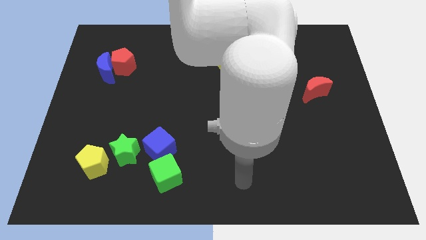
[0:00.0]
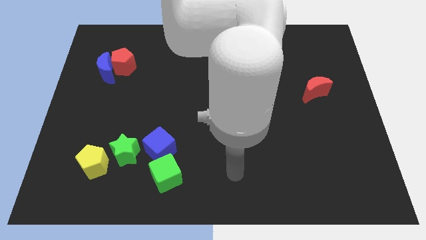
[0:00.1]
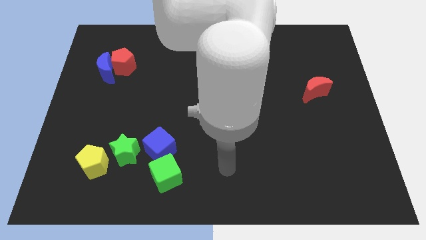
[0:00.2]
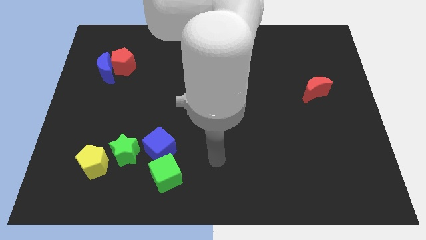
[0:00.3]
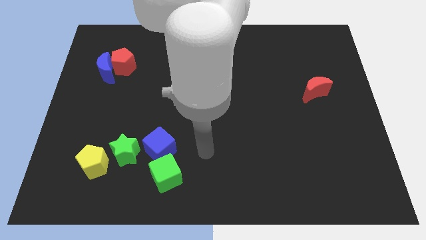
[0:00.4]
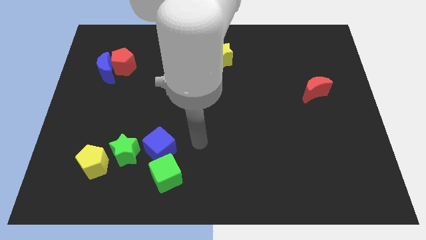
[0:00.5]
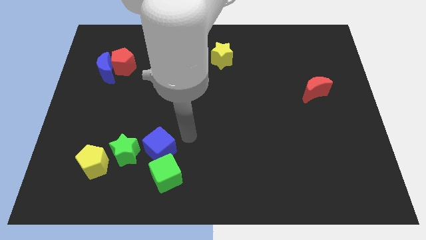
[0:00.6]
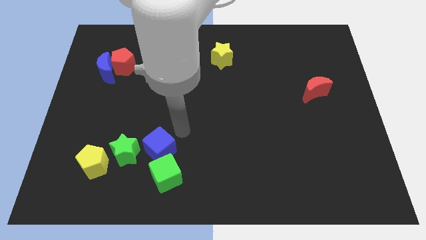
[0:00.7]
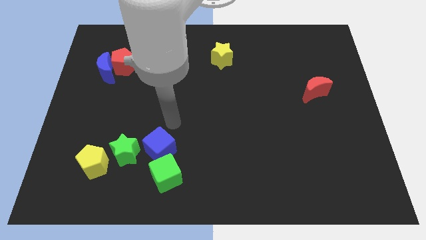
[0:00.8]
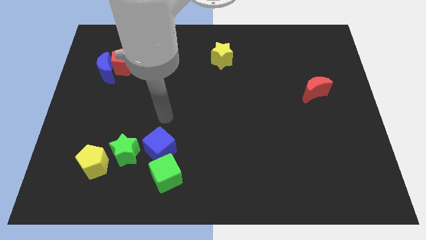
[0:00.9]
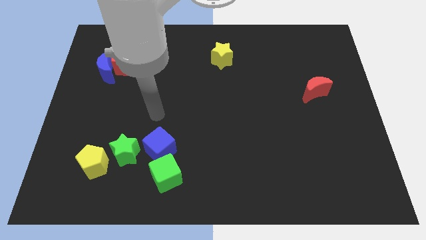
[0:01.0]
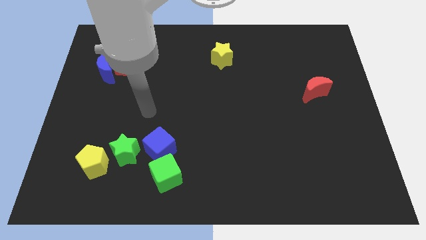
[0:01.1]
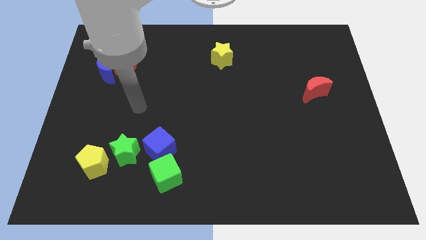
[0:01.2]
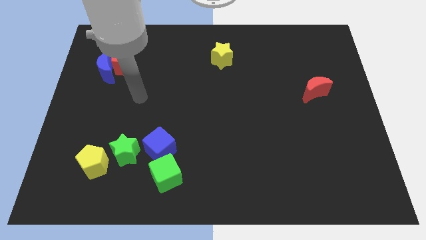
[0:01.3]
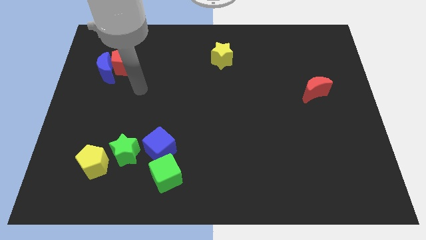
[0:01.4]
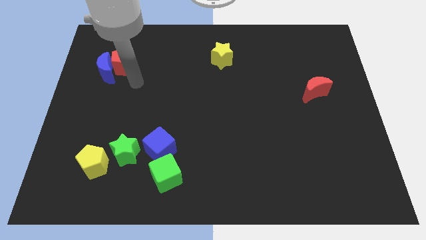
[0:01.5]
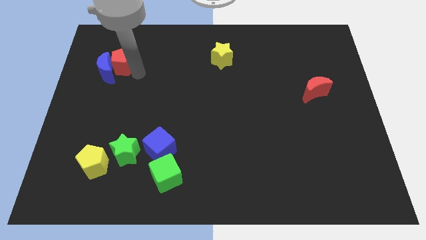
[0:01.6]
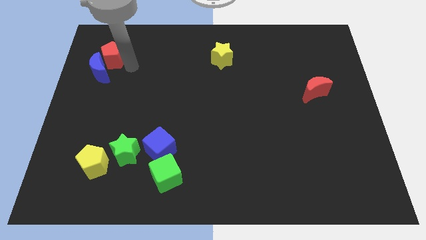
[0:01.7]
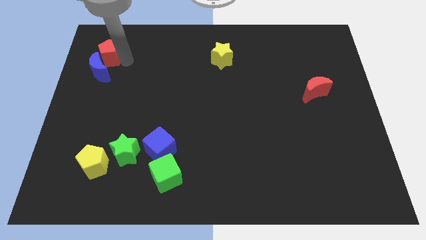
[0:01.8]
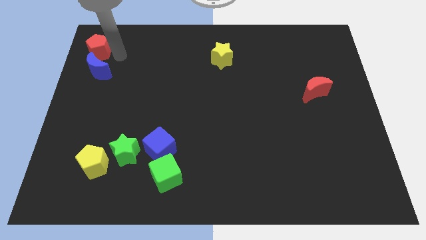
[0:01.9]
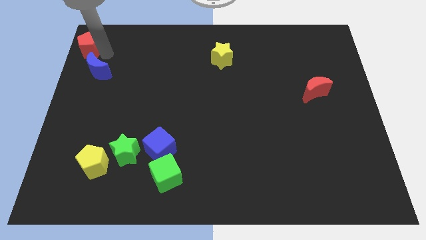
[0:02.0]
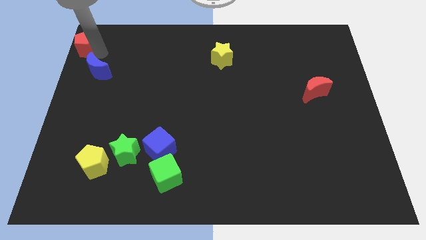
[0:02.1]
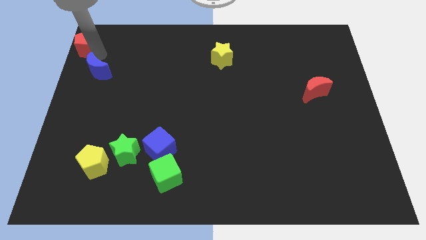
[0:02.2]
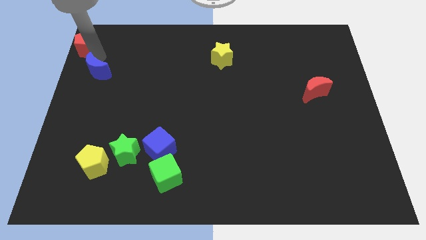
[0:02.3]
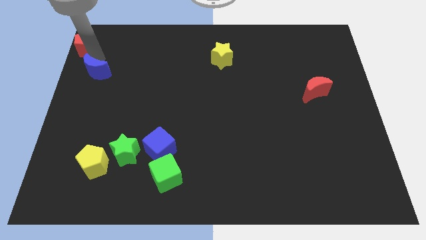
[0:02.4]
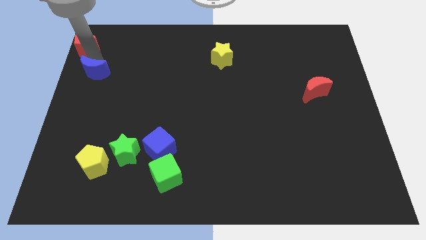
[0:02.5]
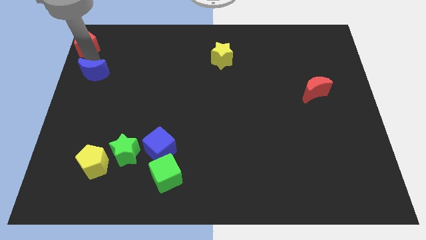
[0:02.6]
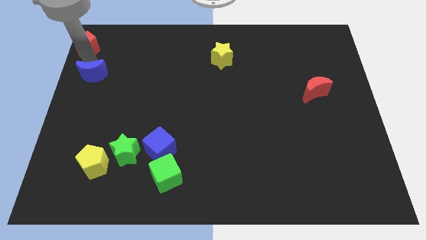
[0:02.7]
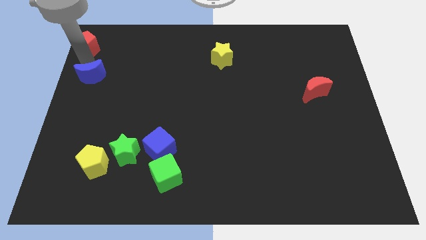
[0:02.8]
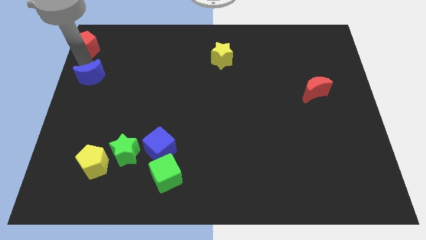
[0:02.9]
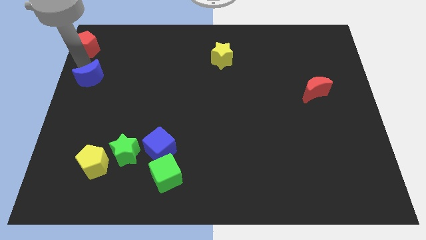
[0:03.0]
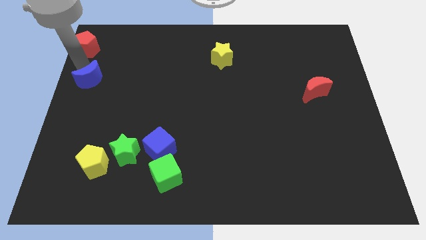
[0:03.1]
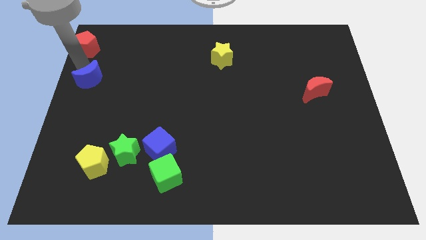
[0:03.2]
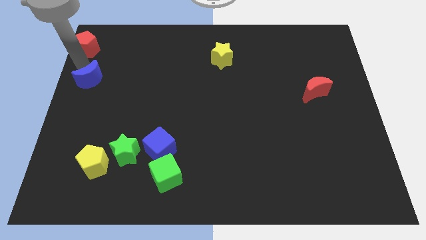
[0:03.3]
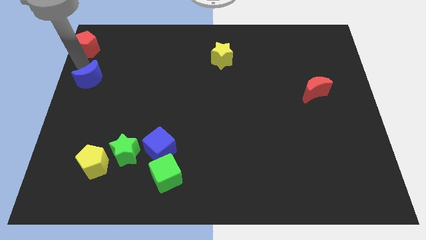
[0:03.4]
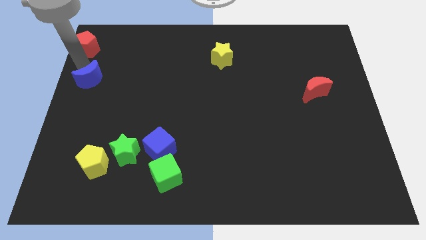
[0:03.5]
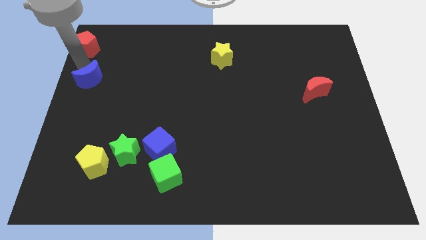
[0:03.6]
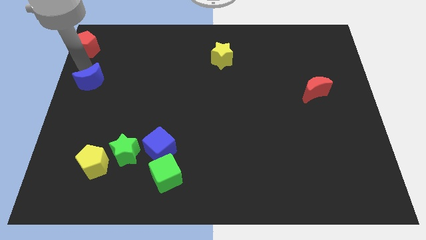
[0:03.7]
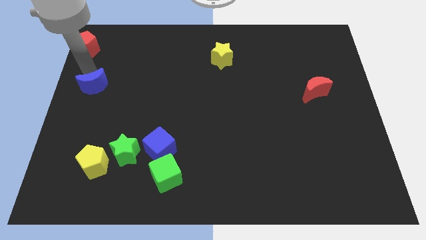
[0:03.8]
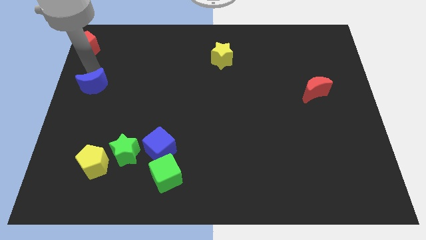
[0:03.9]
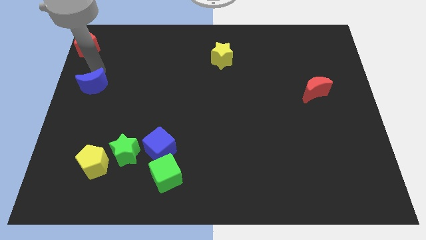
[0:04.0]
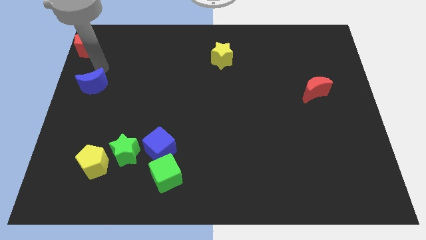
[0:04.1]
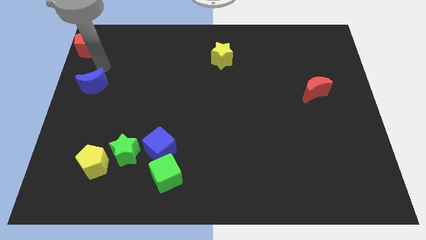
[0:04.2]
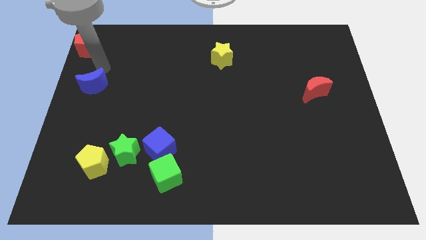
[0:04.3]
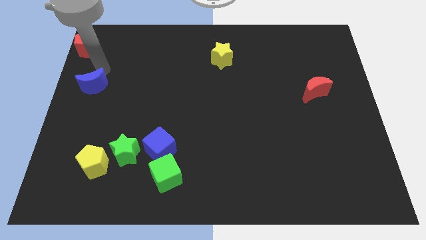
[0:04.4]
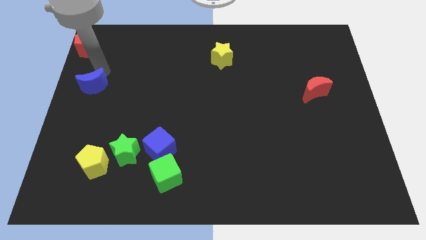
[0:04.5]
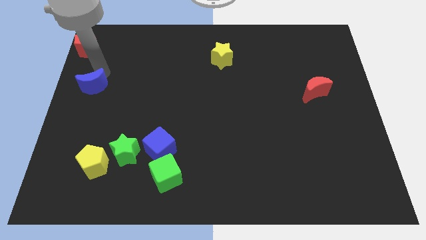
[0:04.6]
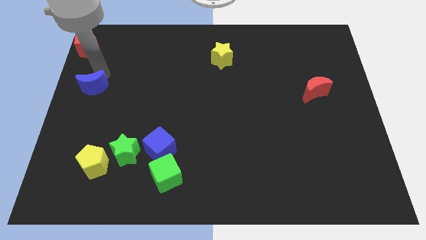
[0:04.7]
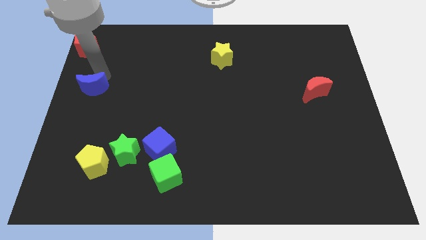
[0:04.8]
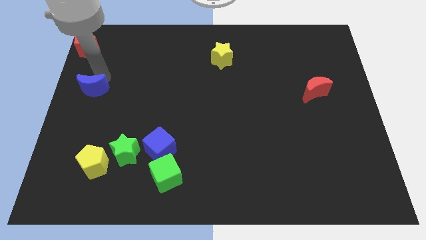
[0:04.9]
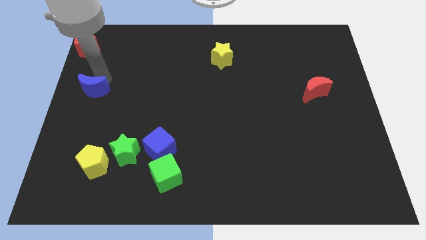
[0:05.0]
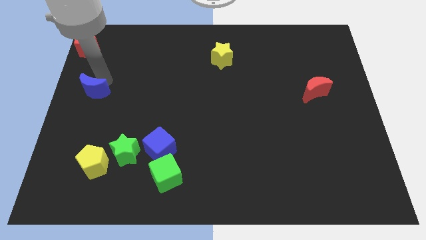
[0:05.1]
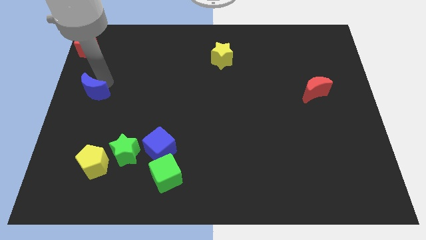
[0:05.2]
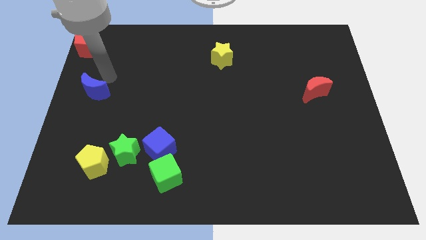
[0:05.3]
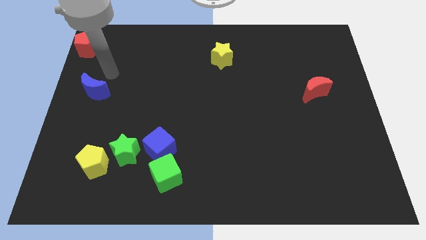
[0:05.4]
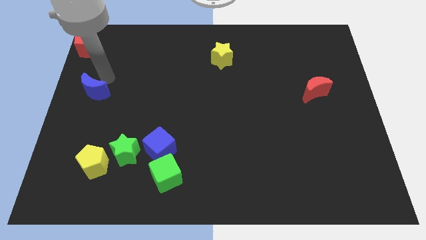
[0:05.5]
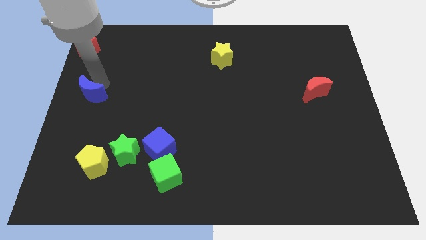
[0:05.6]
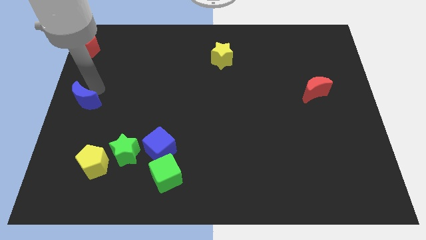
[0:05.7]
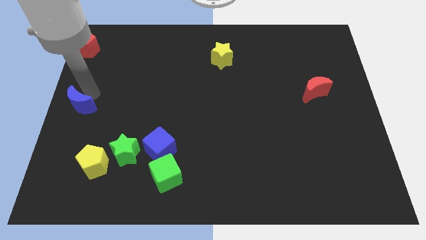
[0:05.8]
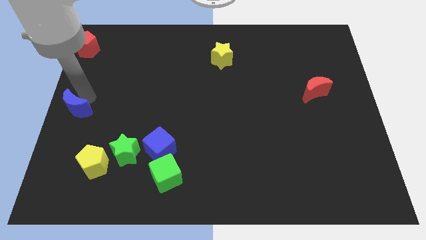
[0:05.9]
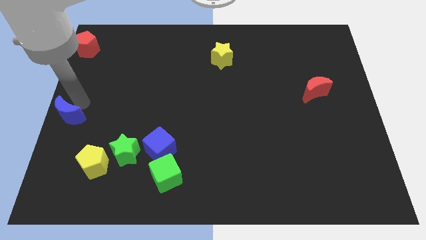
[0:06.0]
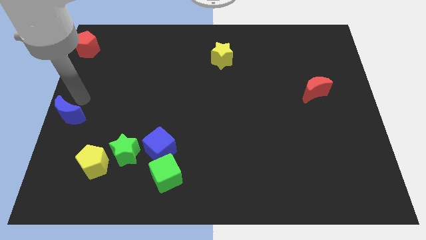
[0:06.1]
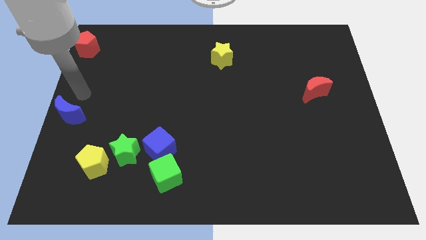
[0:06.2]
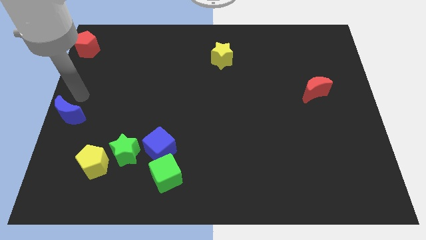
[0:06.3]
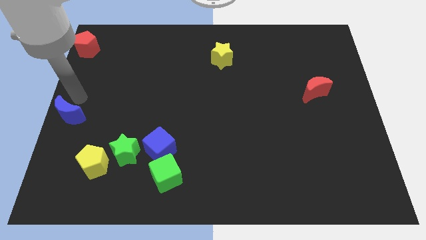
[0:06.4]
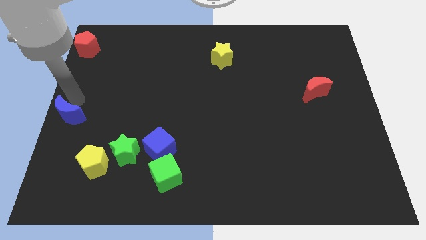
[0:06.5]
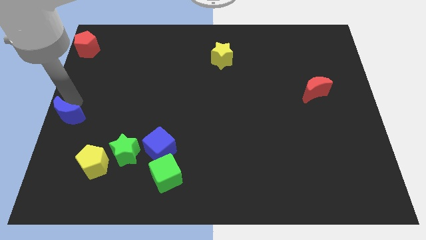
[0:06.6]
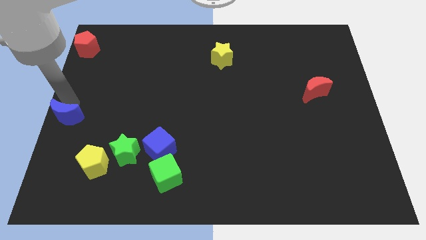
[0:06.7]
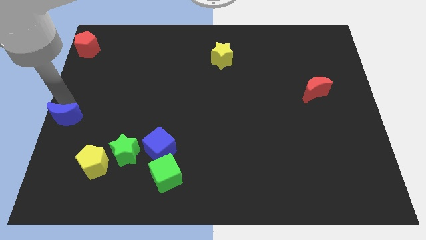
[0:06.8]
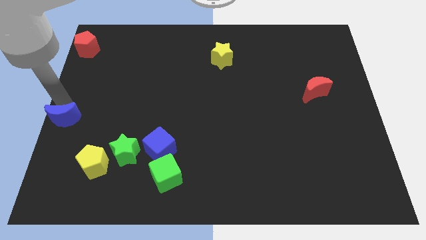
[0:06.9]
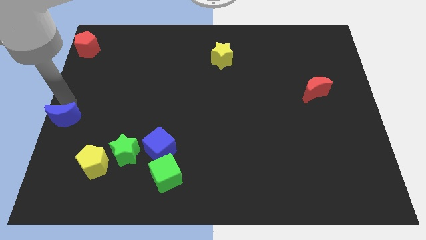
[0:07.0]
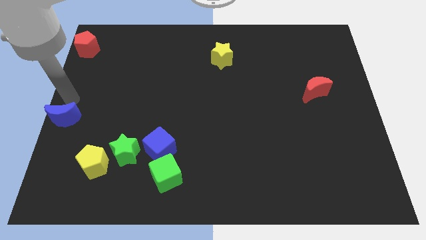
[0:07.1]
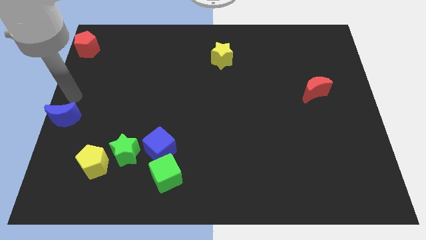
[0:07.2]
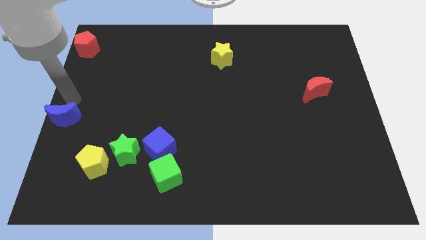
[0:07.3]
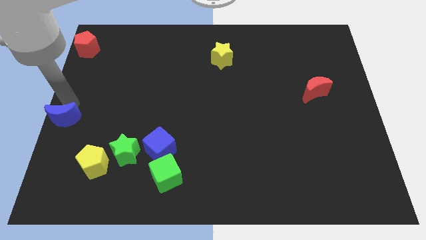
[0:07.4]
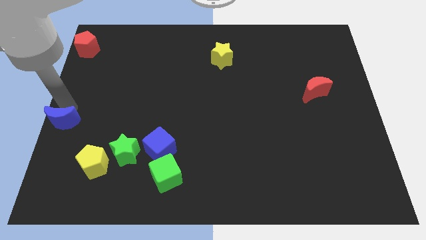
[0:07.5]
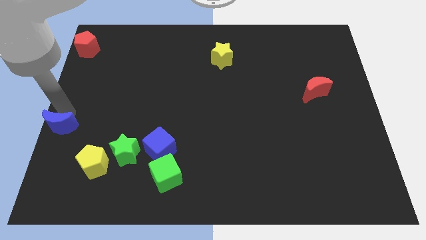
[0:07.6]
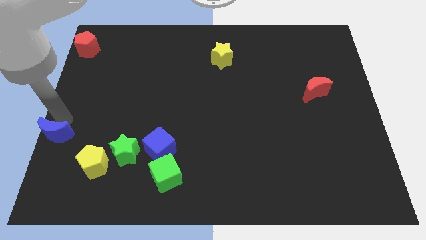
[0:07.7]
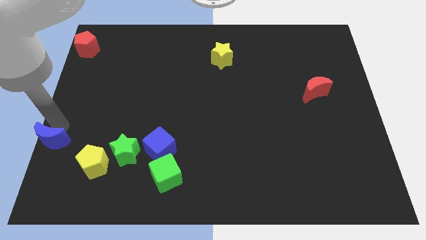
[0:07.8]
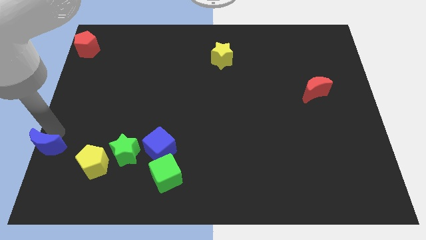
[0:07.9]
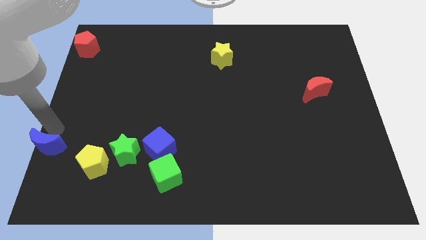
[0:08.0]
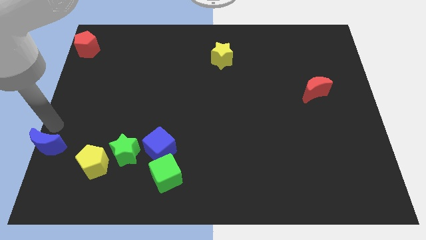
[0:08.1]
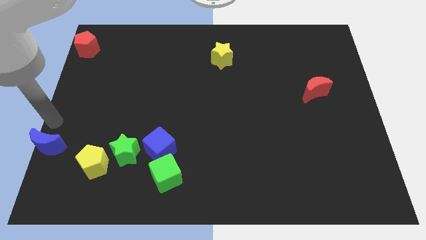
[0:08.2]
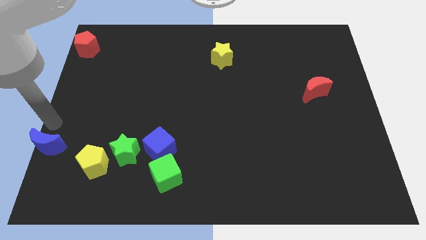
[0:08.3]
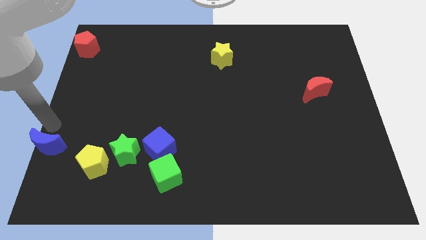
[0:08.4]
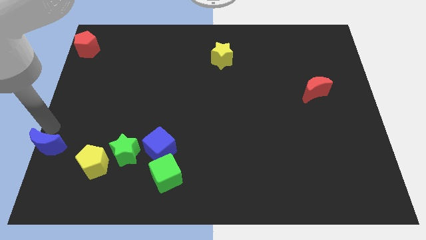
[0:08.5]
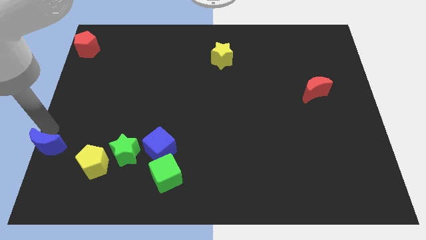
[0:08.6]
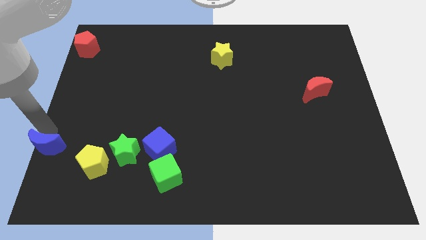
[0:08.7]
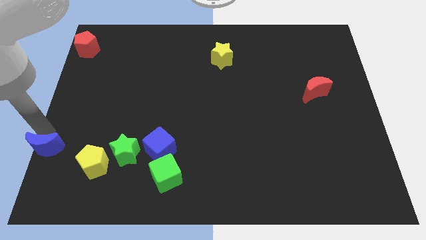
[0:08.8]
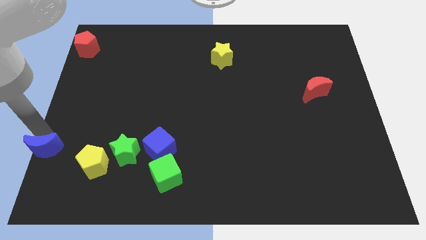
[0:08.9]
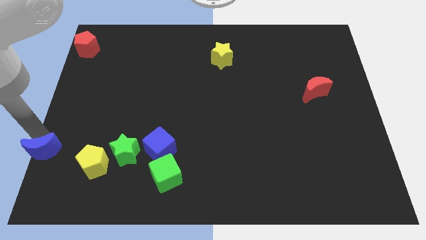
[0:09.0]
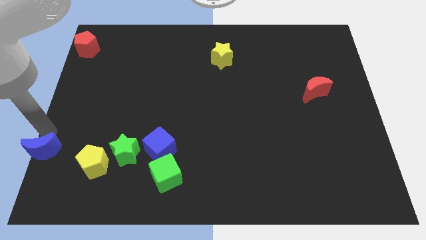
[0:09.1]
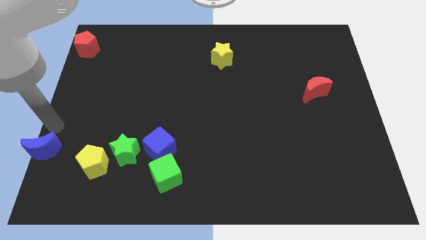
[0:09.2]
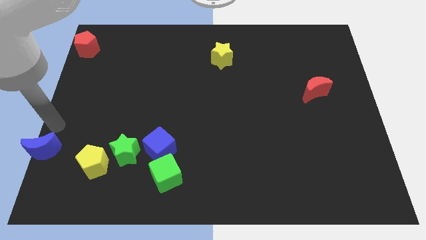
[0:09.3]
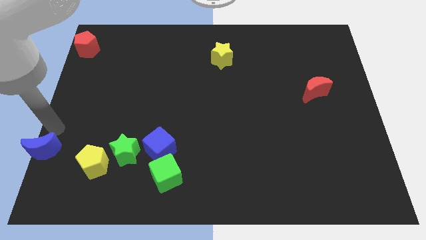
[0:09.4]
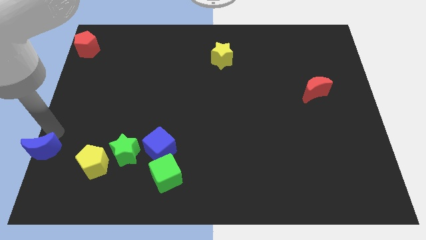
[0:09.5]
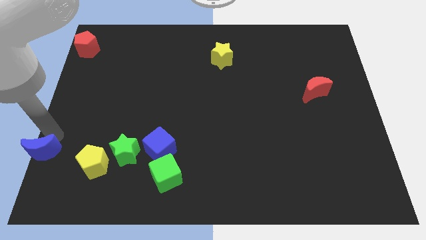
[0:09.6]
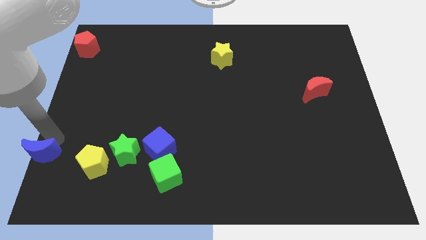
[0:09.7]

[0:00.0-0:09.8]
move the blue moon to the bottom left
